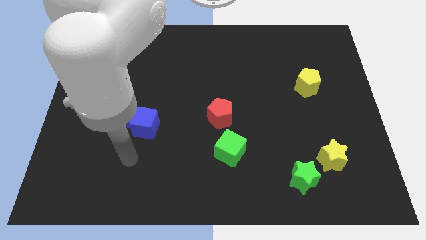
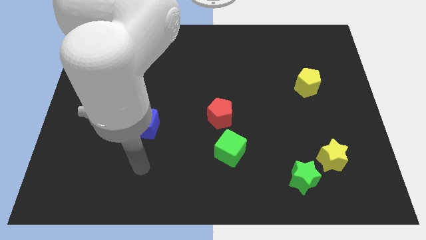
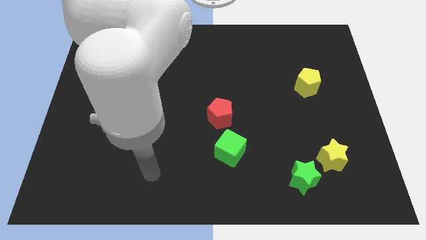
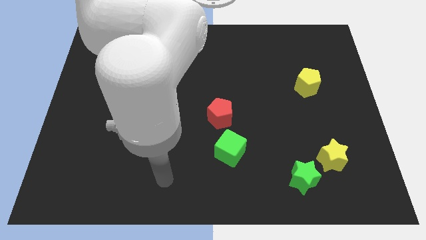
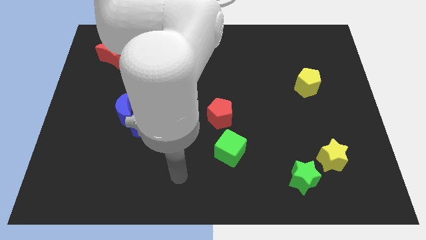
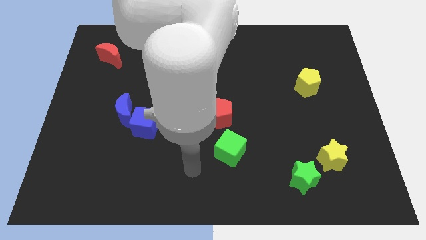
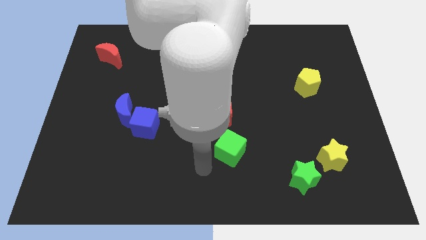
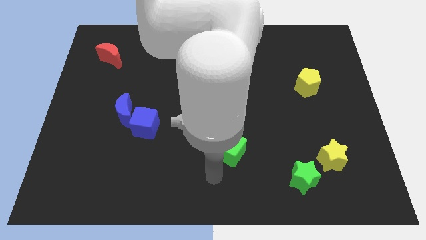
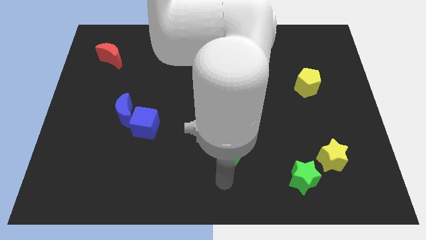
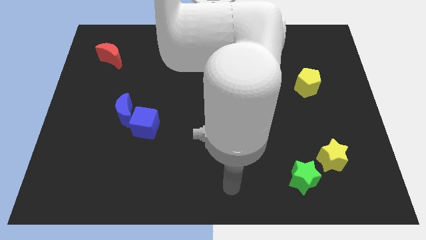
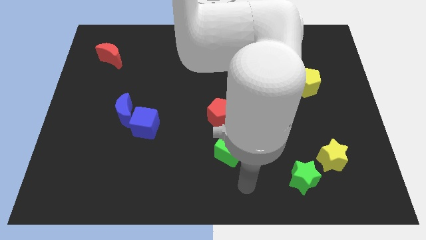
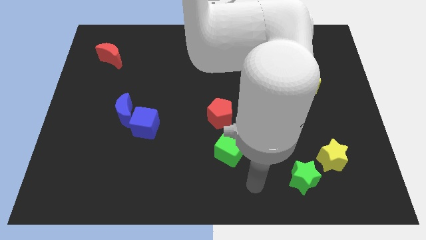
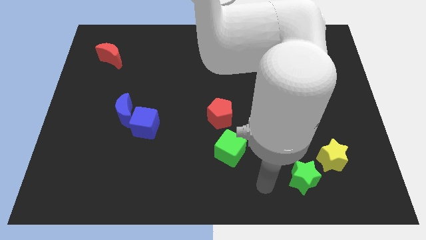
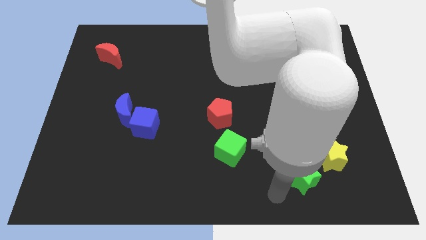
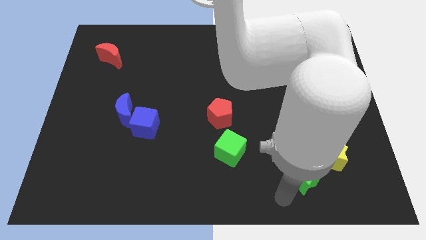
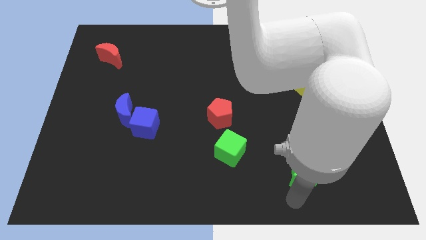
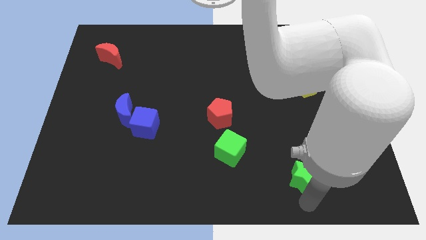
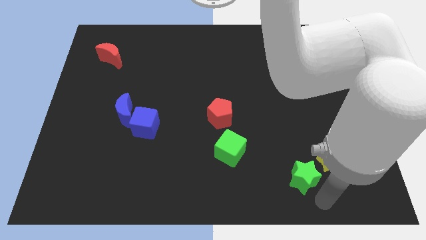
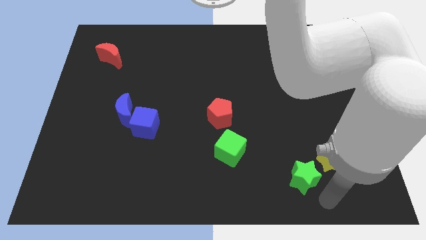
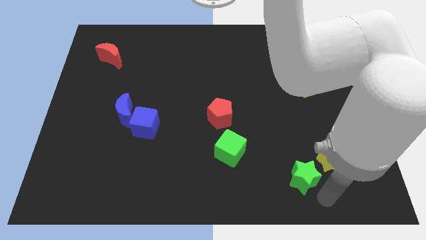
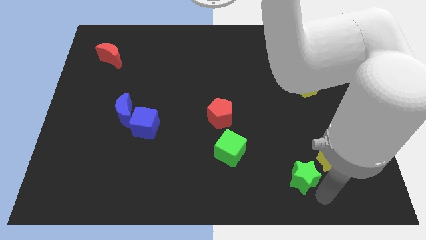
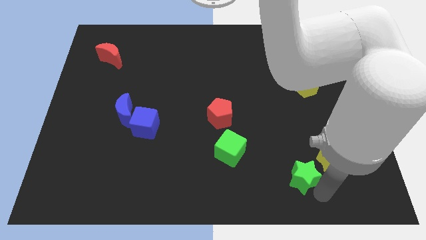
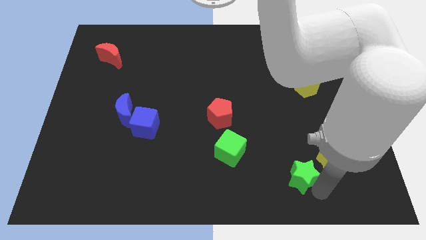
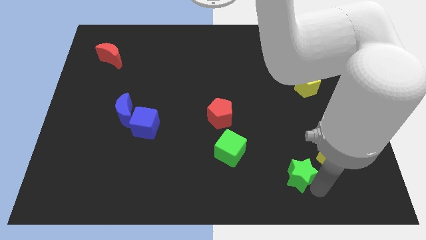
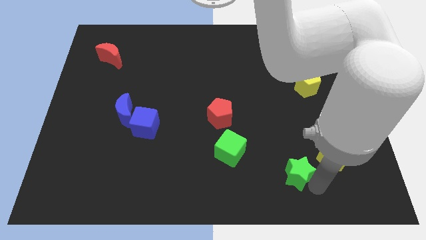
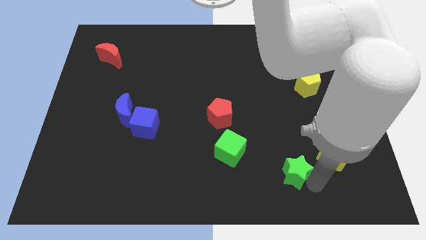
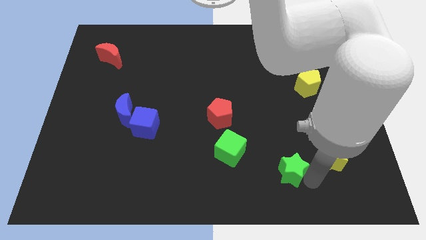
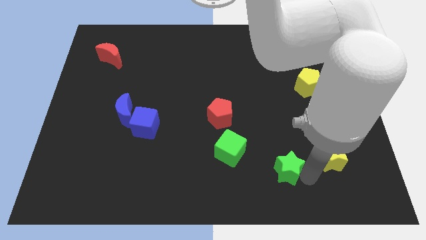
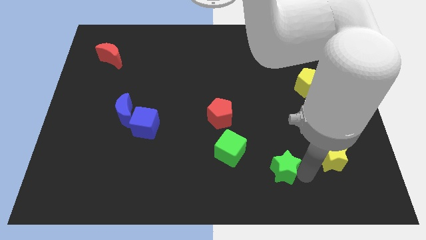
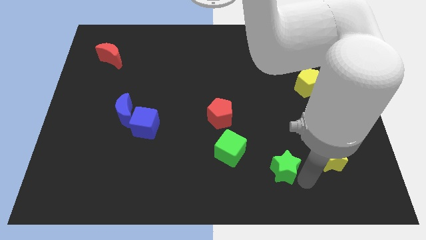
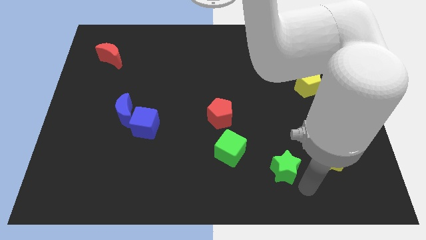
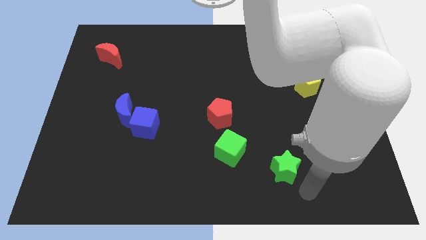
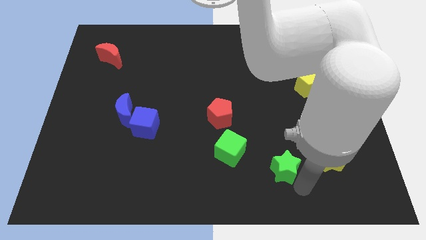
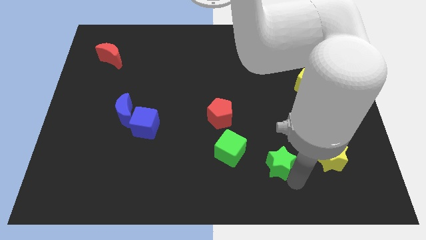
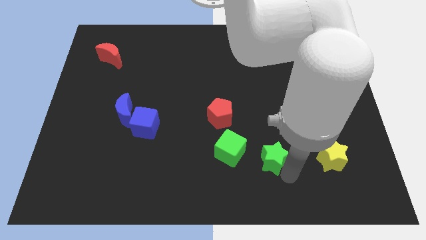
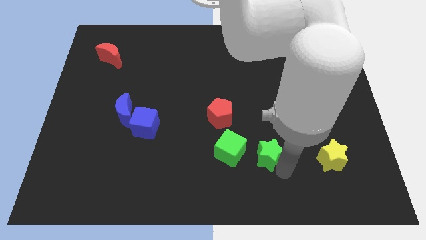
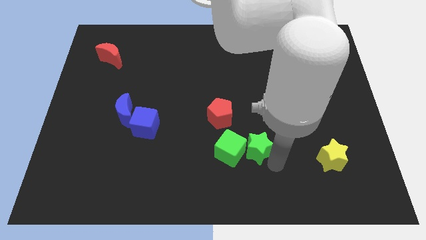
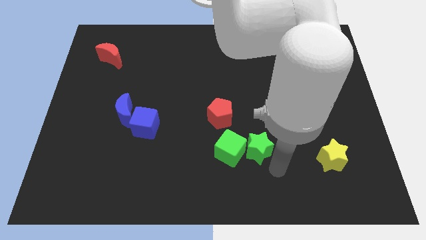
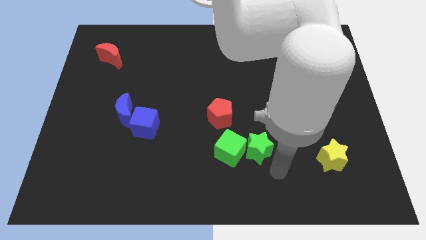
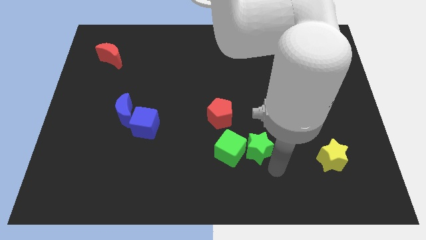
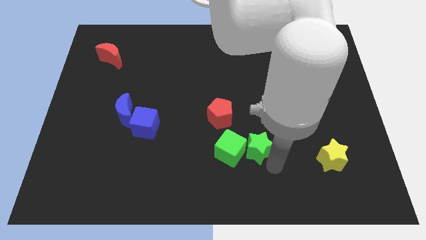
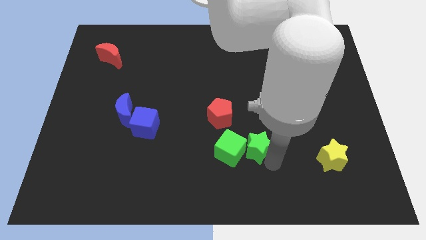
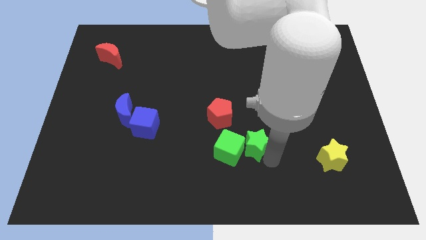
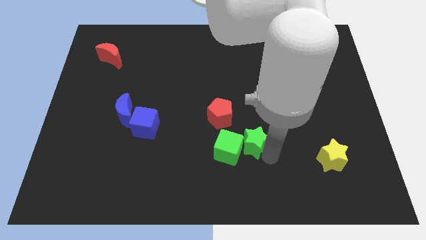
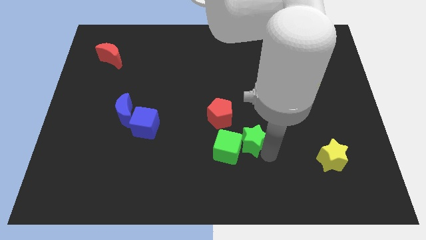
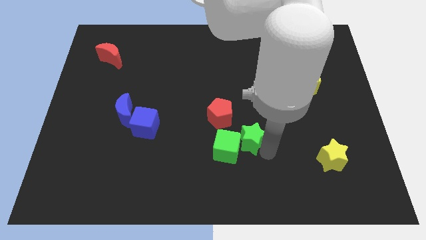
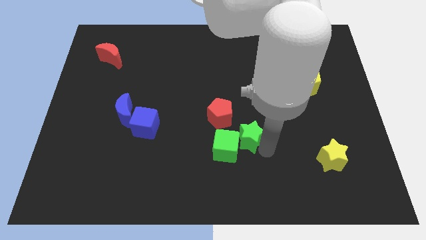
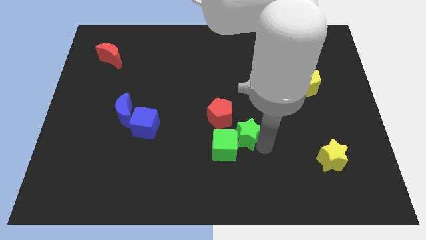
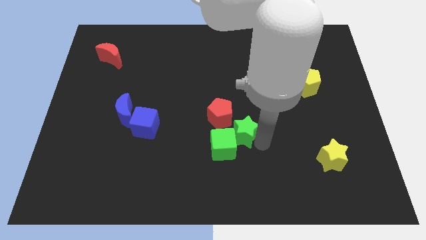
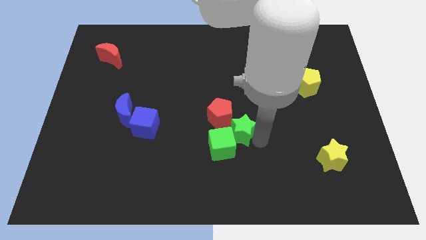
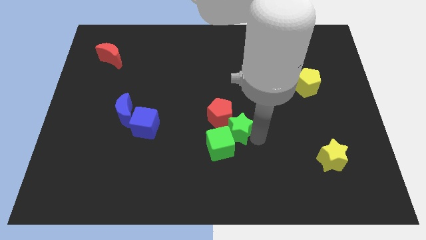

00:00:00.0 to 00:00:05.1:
push the green star towards the red pentagon

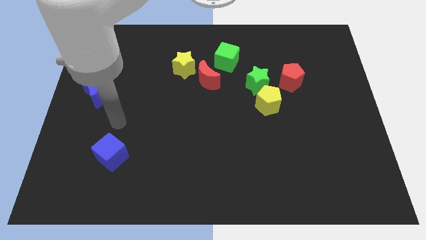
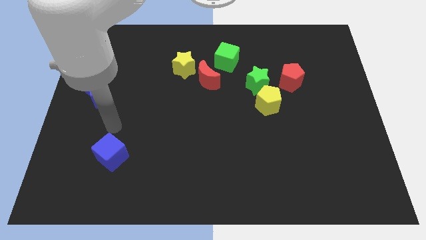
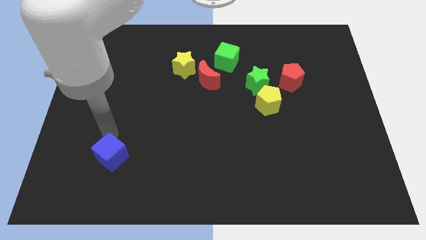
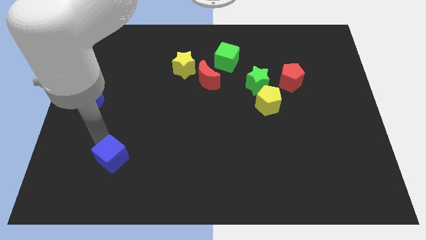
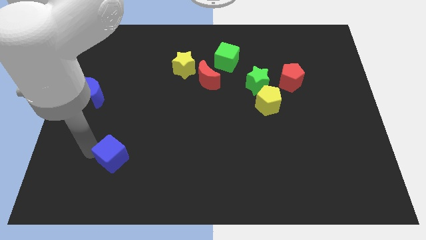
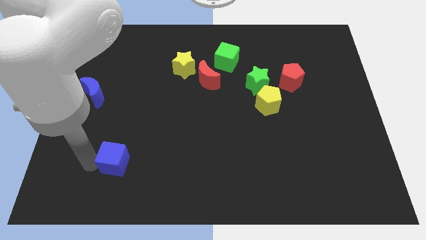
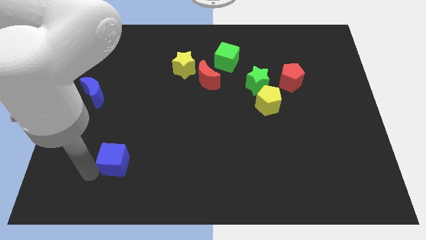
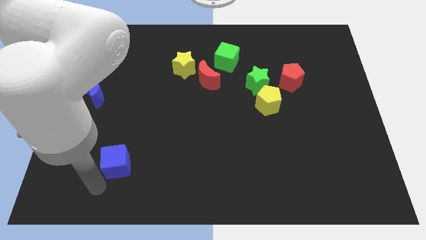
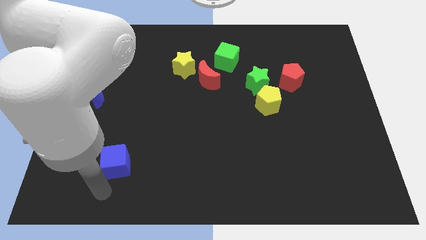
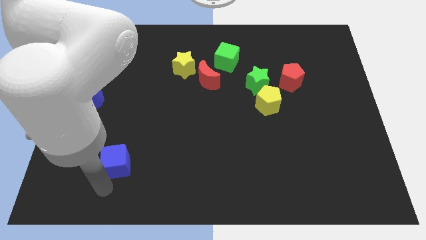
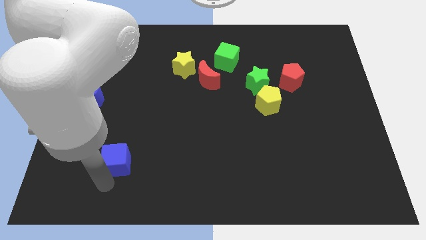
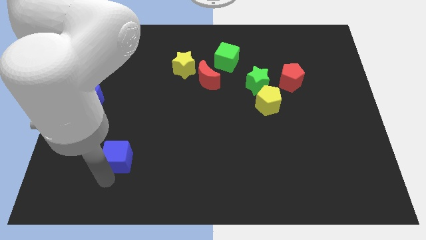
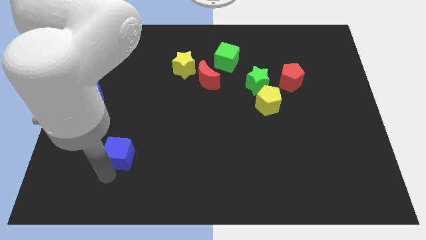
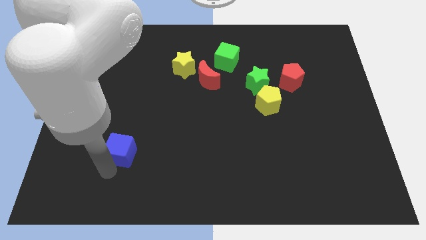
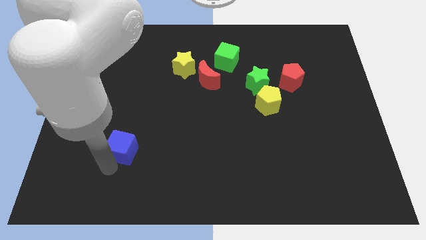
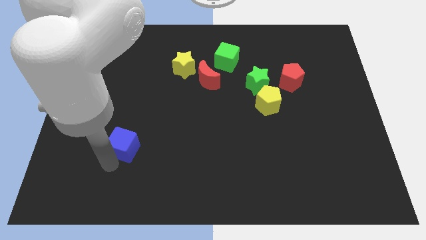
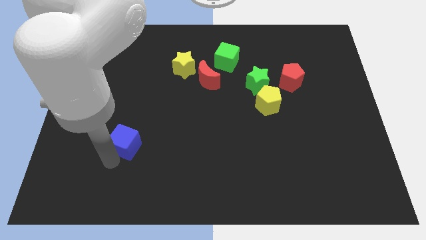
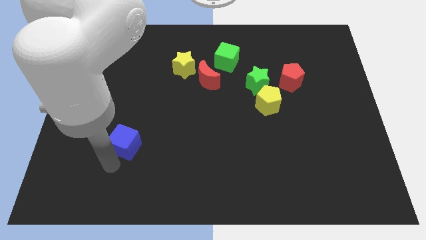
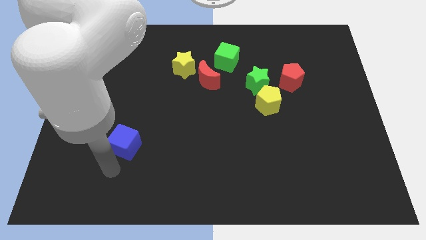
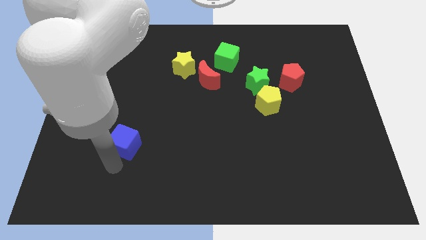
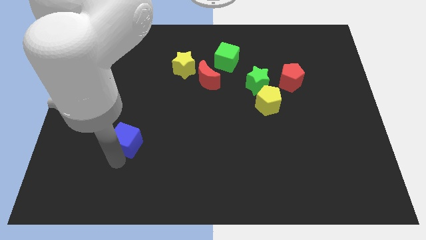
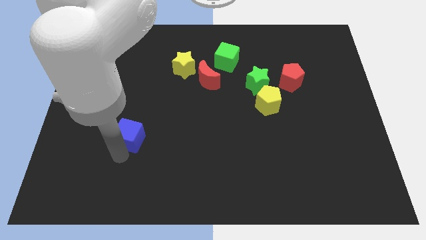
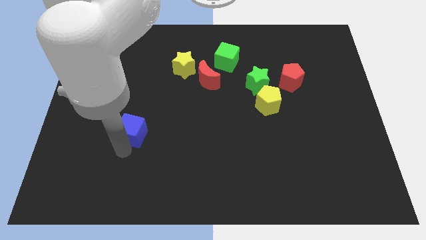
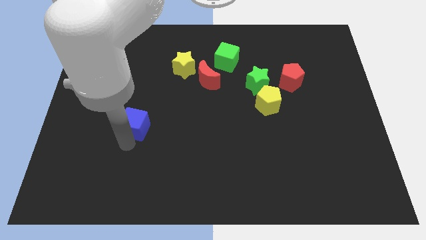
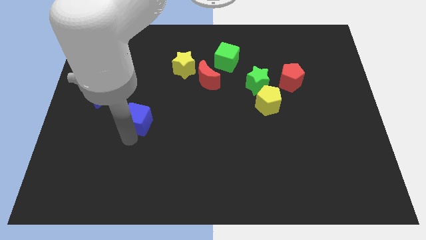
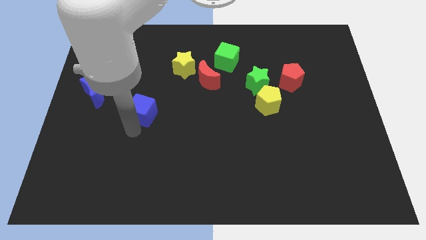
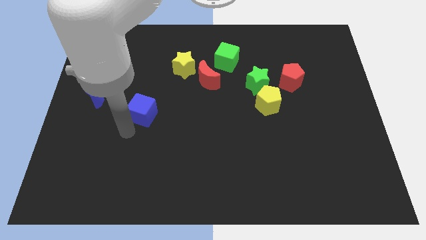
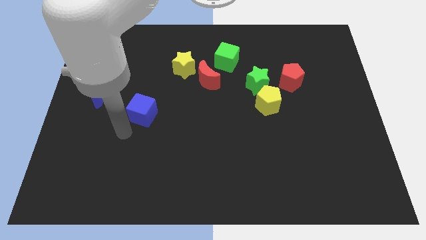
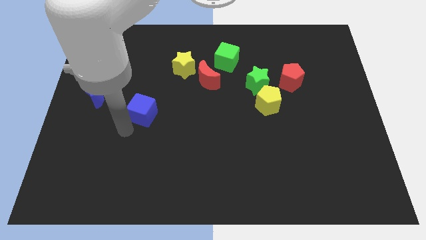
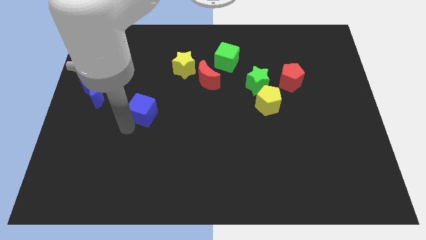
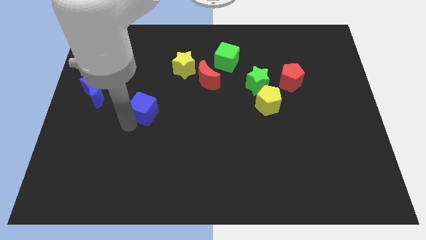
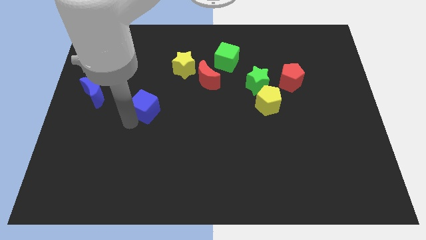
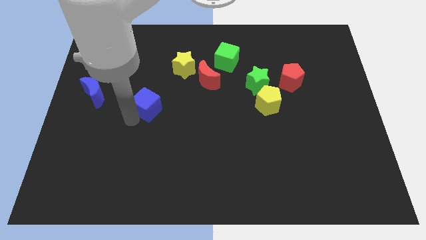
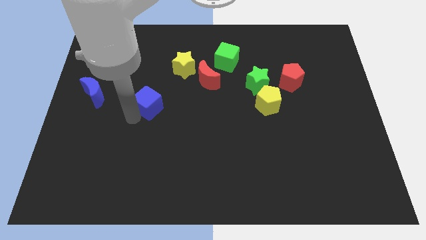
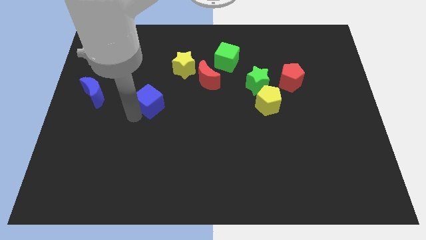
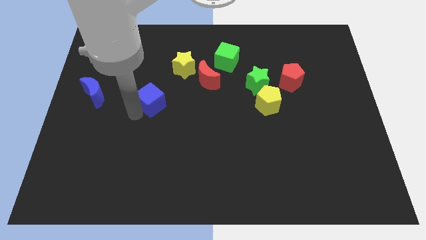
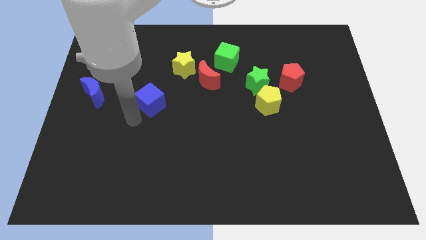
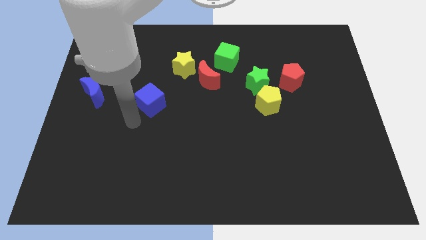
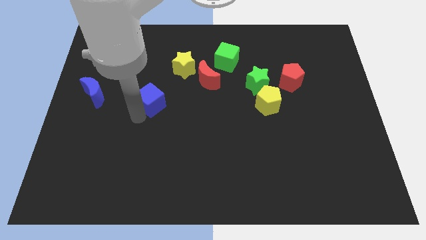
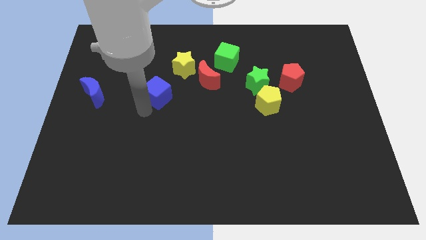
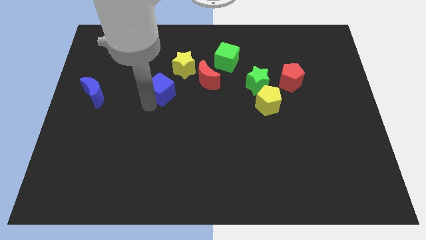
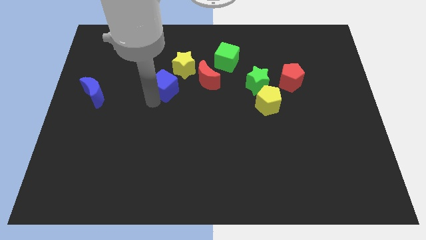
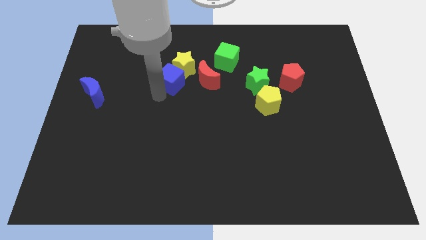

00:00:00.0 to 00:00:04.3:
slide the blue cube towards the yellow star
